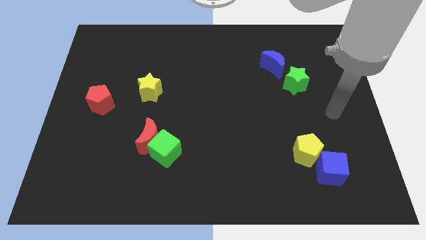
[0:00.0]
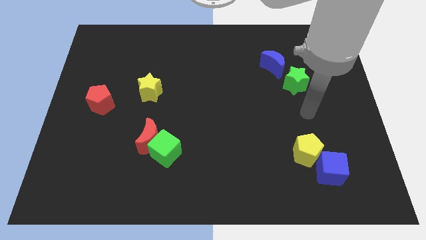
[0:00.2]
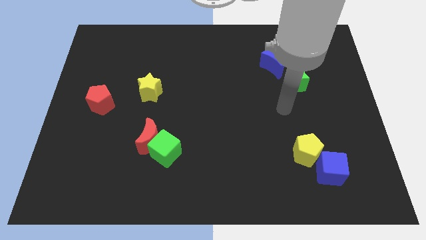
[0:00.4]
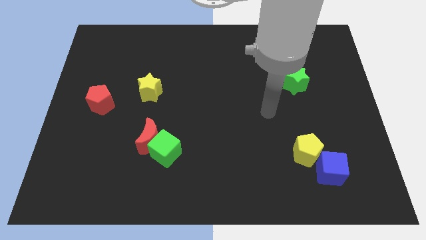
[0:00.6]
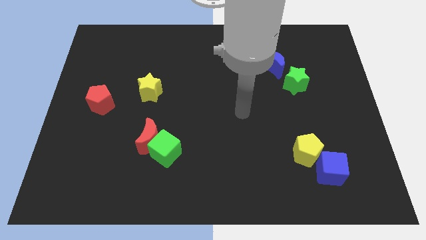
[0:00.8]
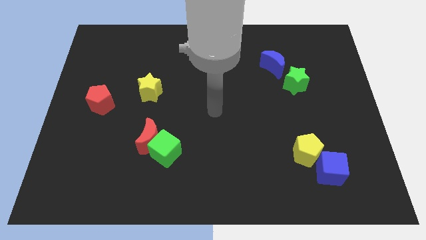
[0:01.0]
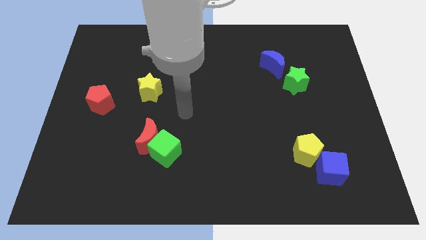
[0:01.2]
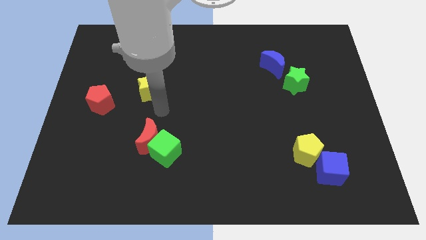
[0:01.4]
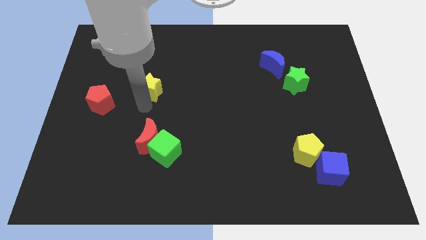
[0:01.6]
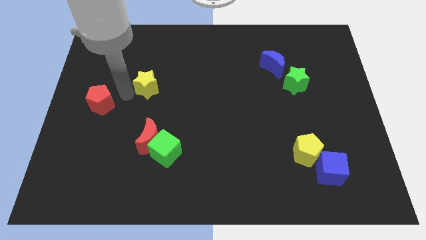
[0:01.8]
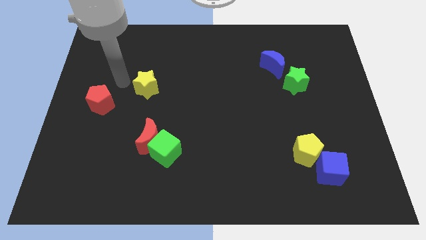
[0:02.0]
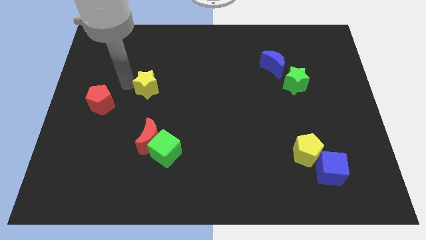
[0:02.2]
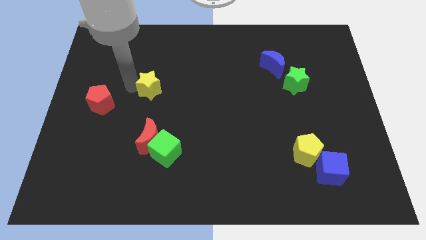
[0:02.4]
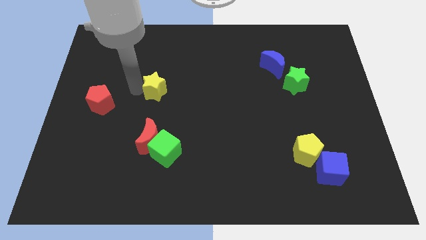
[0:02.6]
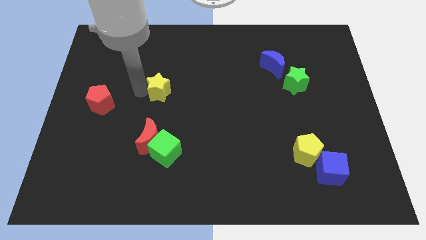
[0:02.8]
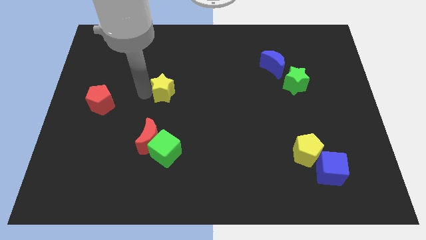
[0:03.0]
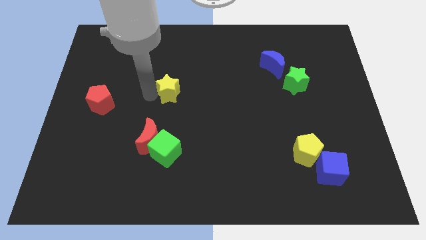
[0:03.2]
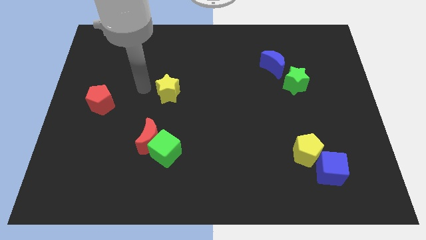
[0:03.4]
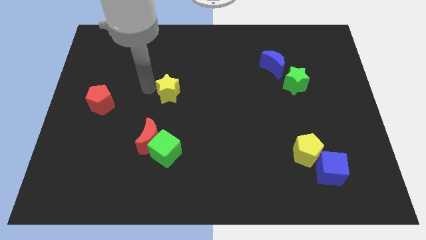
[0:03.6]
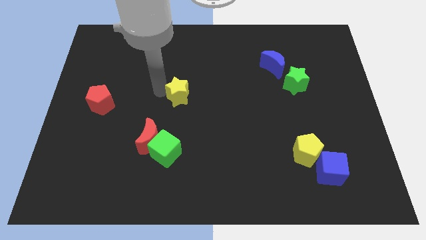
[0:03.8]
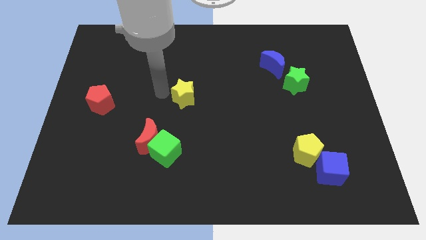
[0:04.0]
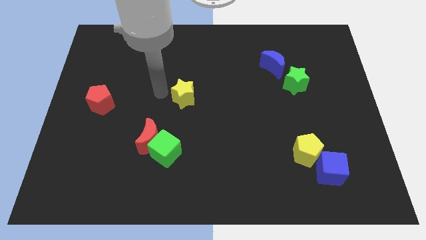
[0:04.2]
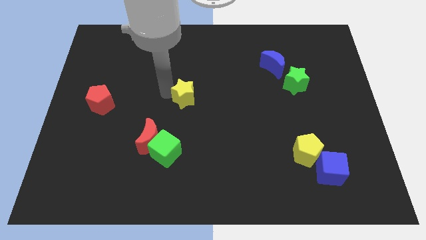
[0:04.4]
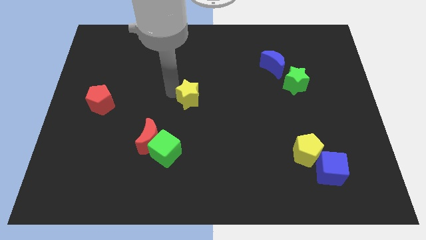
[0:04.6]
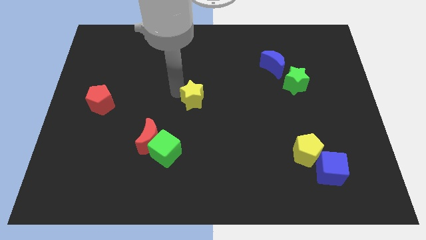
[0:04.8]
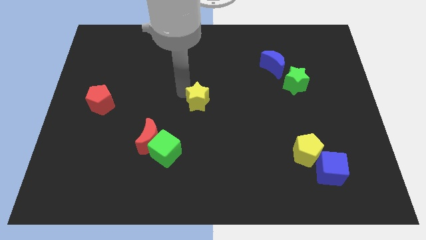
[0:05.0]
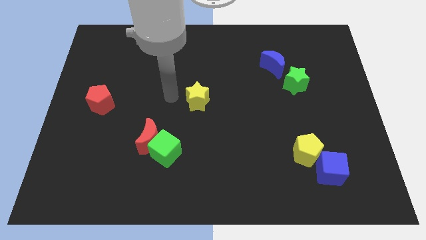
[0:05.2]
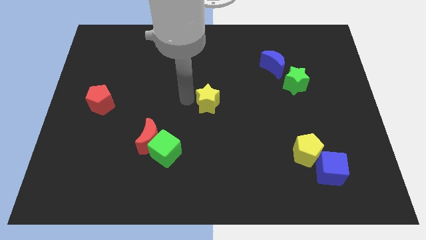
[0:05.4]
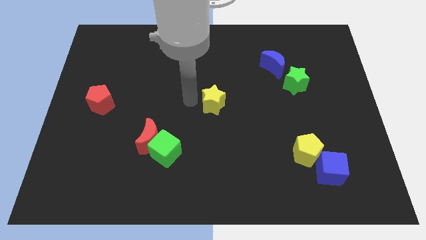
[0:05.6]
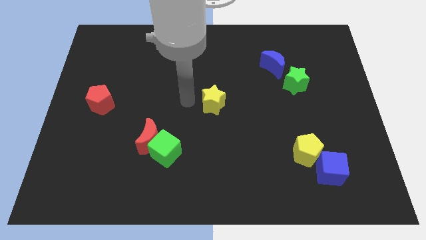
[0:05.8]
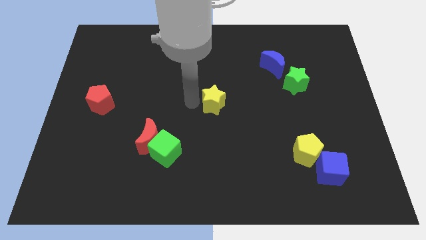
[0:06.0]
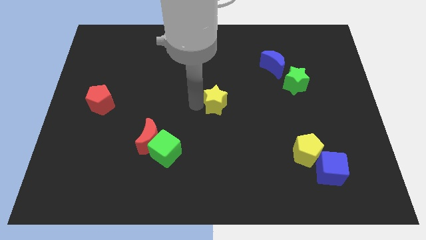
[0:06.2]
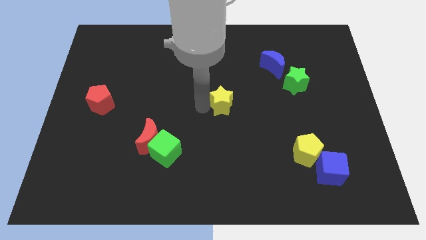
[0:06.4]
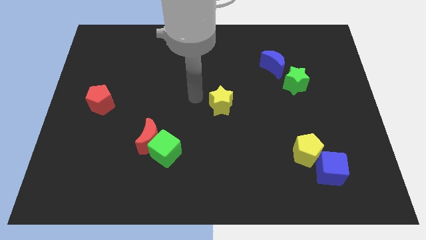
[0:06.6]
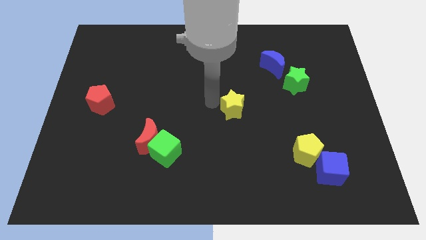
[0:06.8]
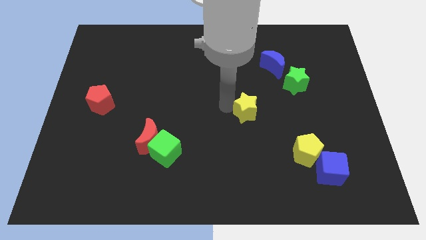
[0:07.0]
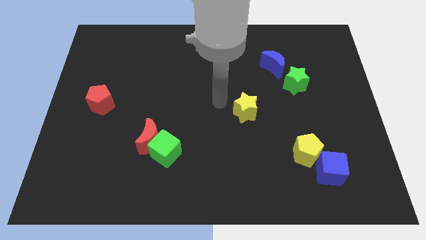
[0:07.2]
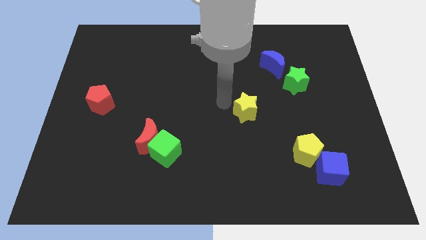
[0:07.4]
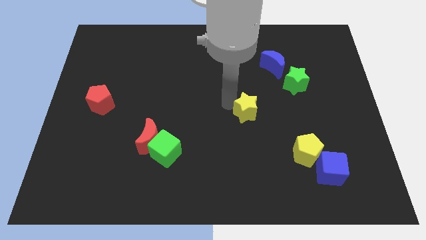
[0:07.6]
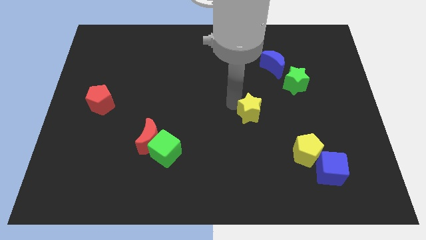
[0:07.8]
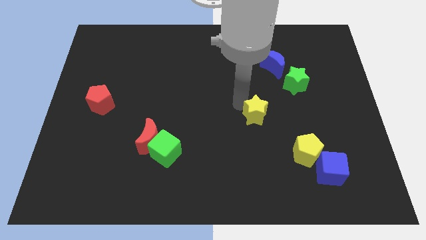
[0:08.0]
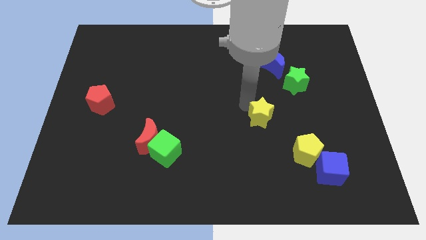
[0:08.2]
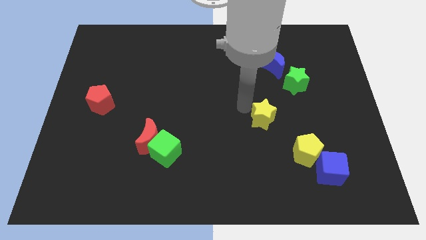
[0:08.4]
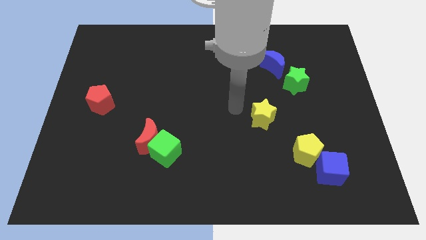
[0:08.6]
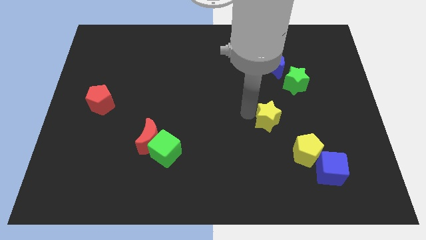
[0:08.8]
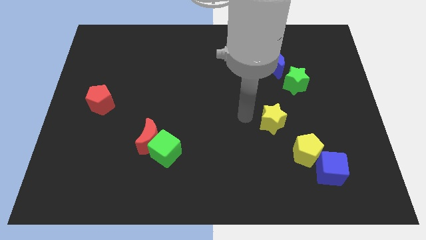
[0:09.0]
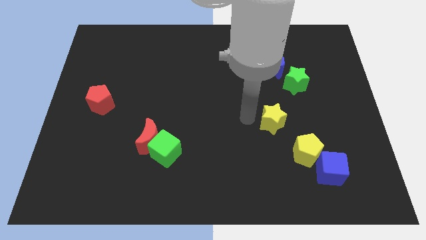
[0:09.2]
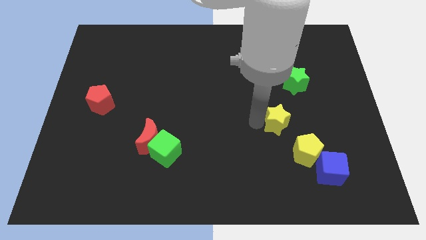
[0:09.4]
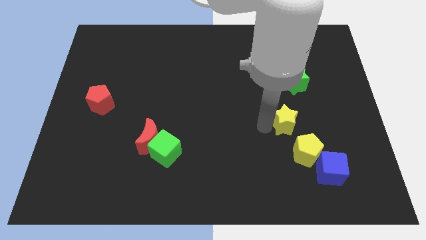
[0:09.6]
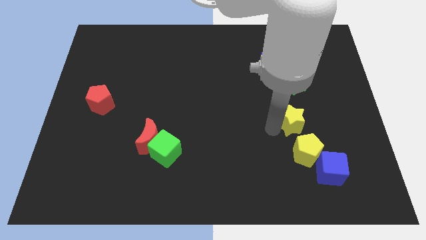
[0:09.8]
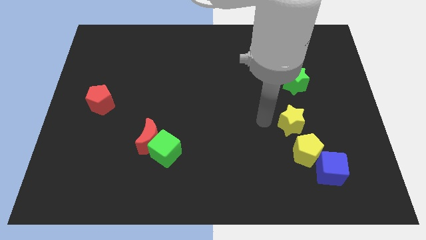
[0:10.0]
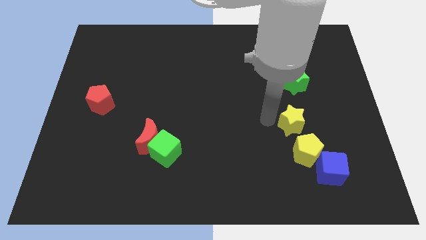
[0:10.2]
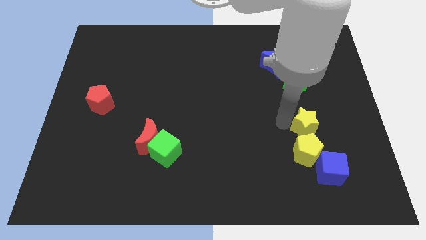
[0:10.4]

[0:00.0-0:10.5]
put the yellow star above the blue cube

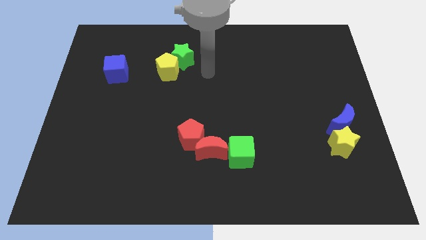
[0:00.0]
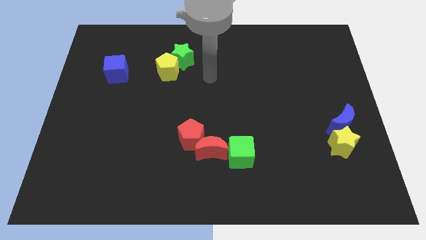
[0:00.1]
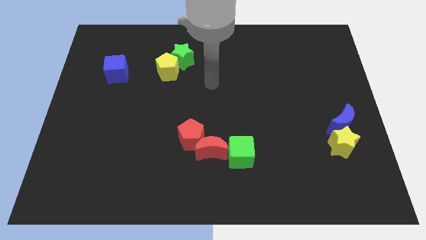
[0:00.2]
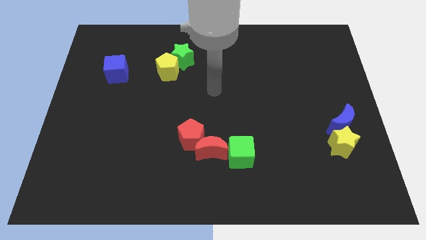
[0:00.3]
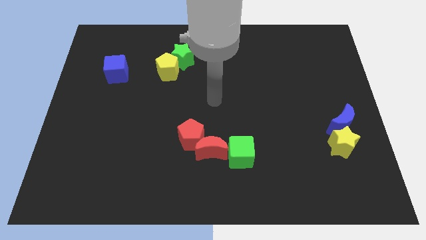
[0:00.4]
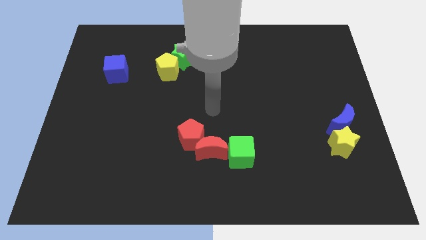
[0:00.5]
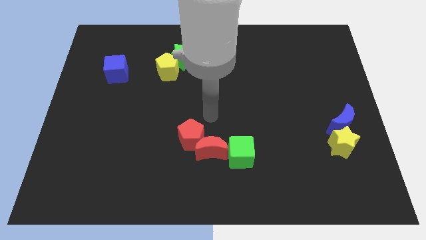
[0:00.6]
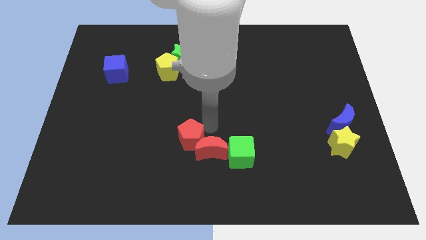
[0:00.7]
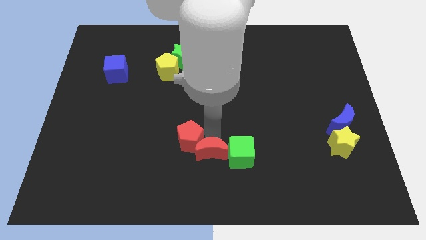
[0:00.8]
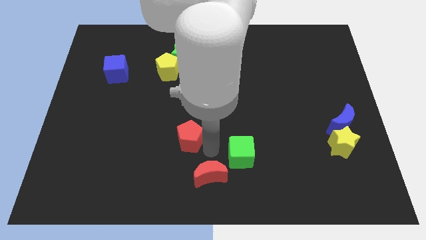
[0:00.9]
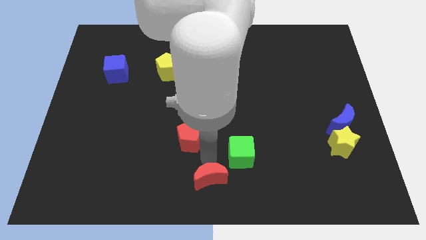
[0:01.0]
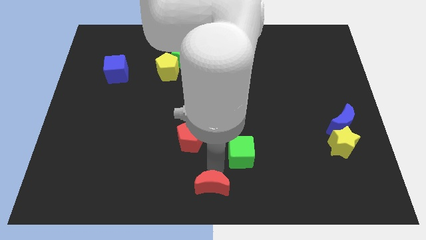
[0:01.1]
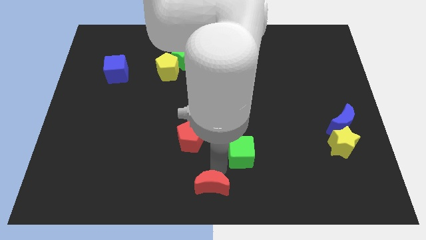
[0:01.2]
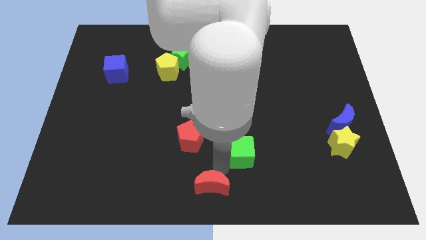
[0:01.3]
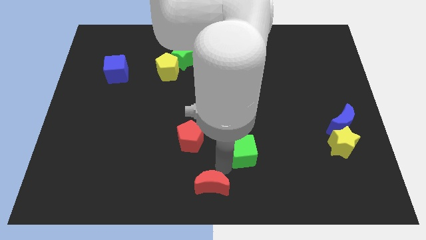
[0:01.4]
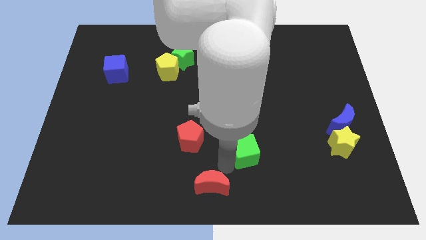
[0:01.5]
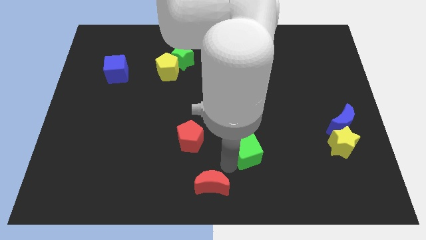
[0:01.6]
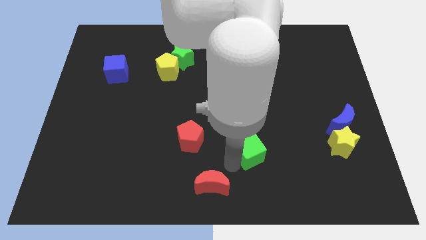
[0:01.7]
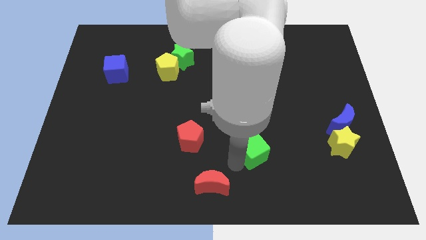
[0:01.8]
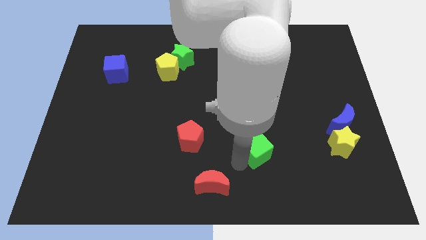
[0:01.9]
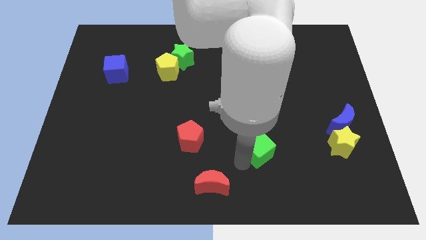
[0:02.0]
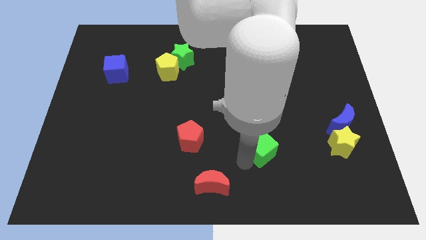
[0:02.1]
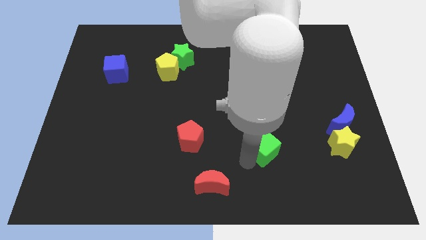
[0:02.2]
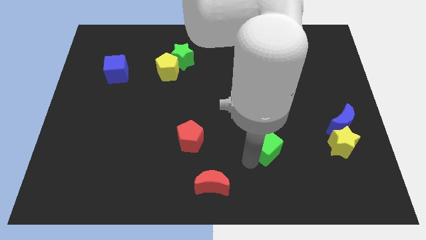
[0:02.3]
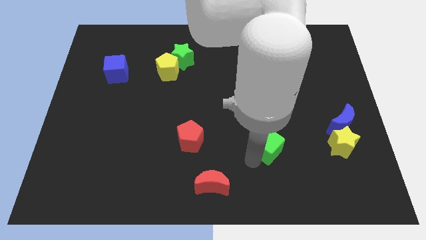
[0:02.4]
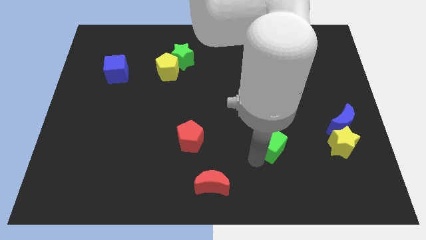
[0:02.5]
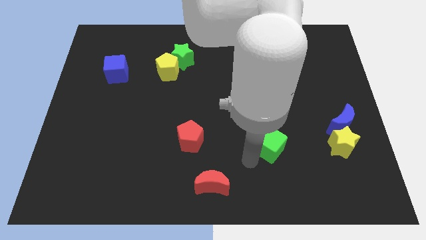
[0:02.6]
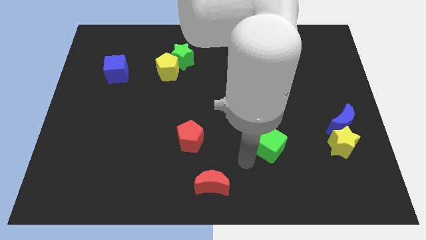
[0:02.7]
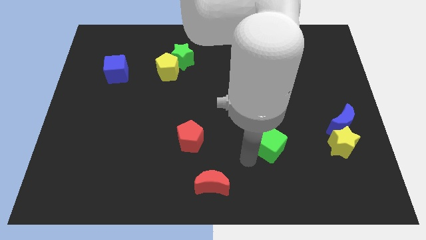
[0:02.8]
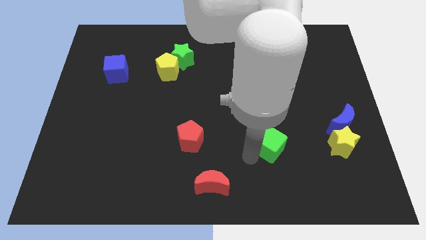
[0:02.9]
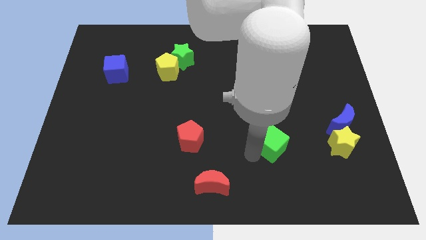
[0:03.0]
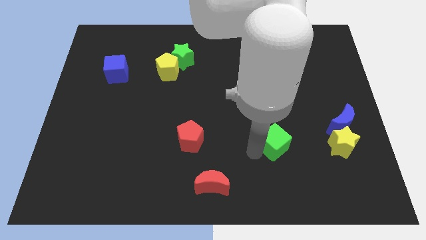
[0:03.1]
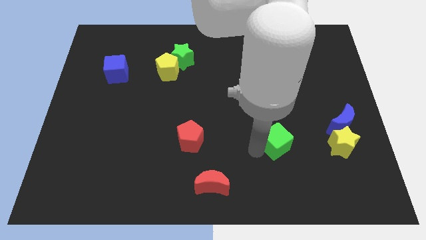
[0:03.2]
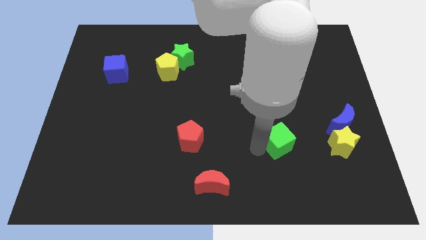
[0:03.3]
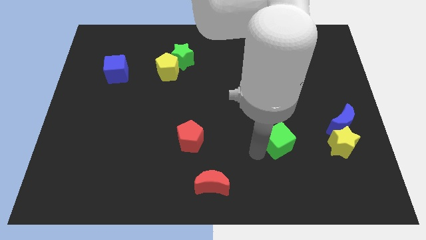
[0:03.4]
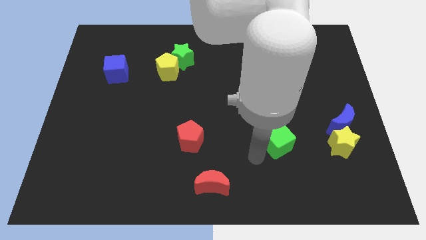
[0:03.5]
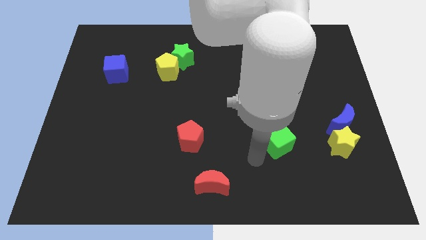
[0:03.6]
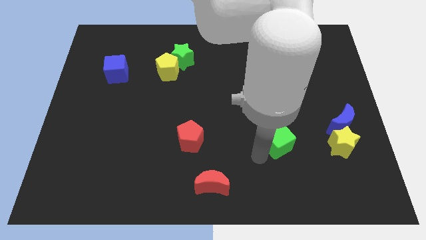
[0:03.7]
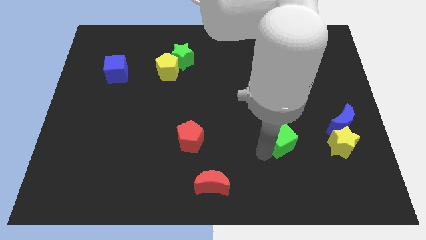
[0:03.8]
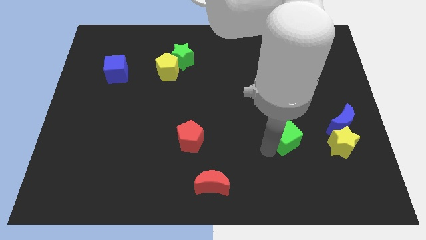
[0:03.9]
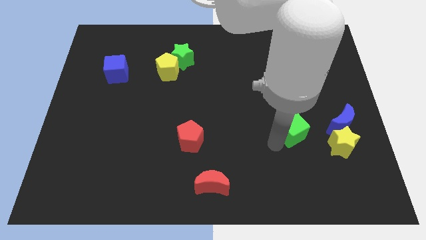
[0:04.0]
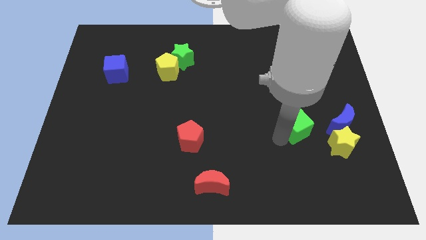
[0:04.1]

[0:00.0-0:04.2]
slide the green cube to the top left of the yellow star
